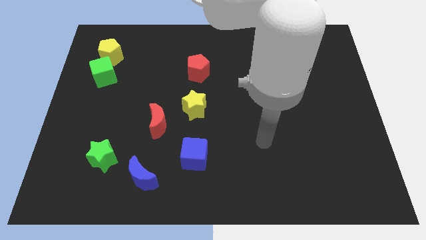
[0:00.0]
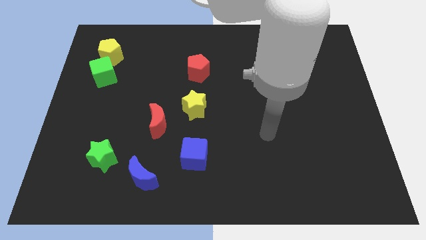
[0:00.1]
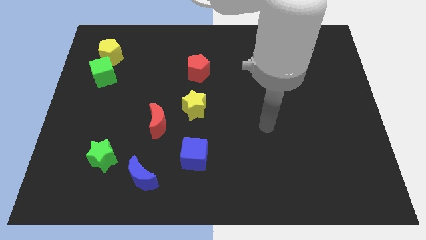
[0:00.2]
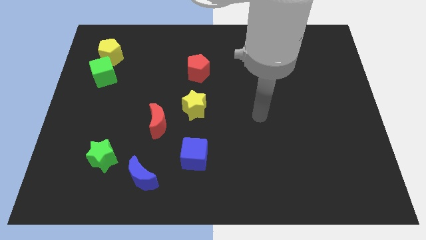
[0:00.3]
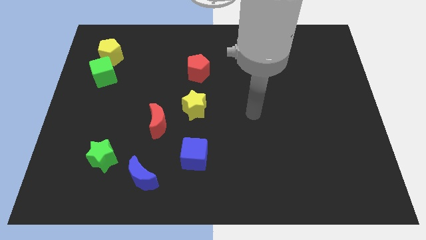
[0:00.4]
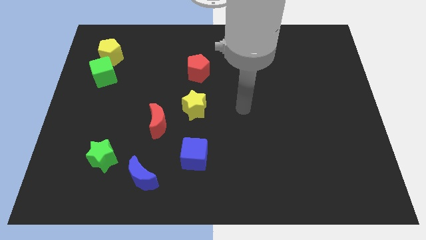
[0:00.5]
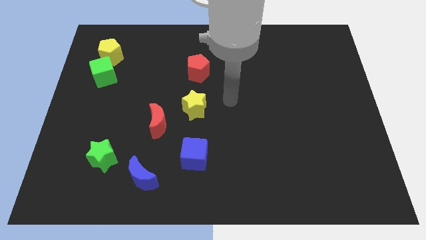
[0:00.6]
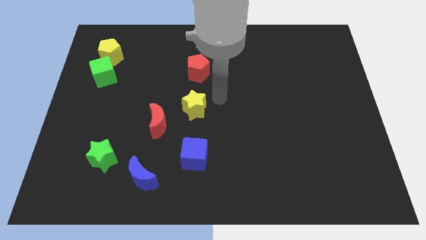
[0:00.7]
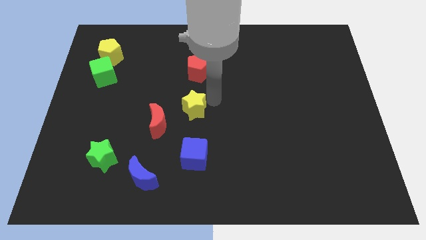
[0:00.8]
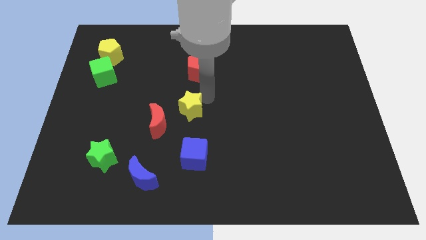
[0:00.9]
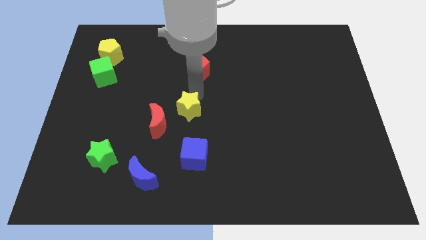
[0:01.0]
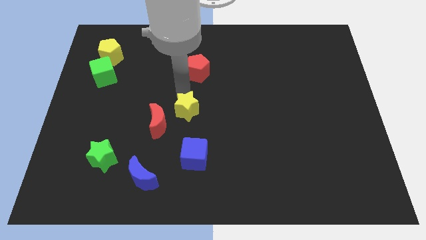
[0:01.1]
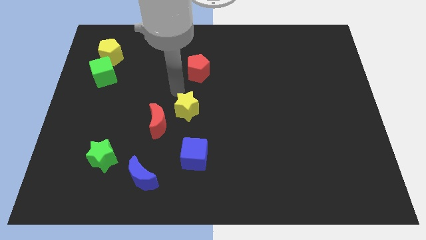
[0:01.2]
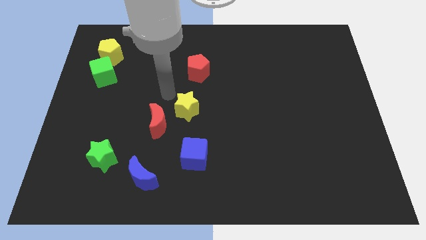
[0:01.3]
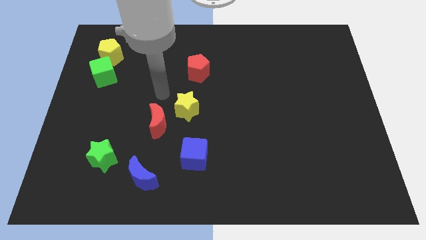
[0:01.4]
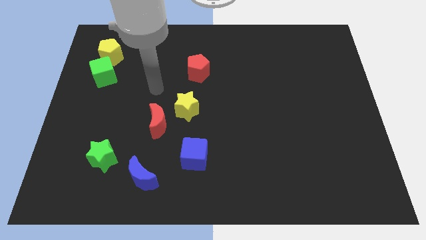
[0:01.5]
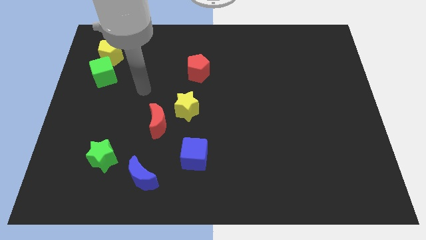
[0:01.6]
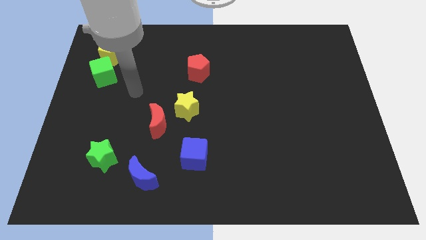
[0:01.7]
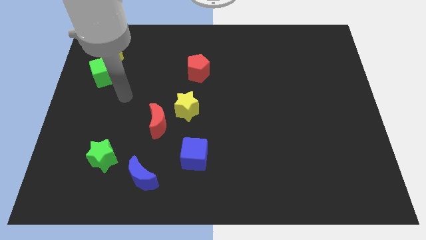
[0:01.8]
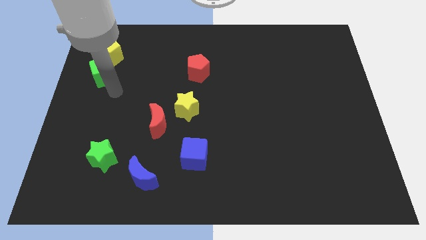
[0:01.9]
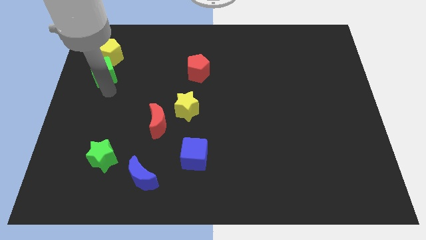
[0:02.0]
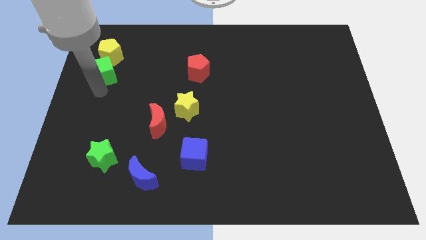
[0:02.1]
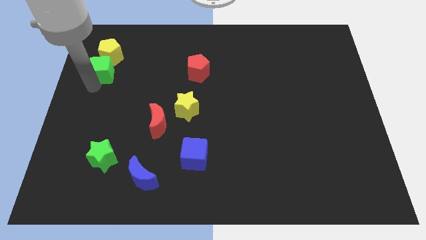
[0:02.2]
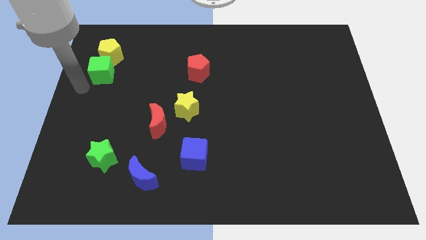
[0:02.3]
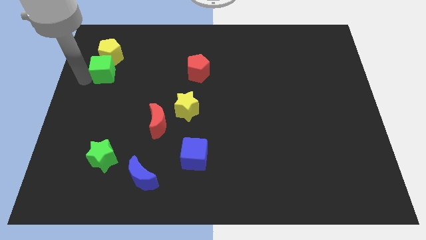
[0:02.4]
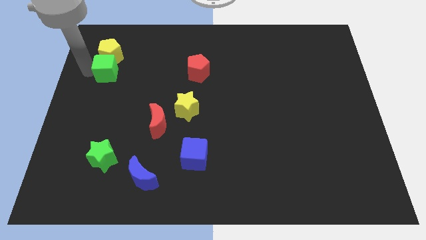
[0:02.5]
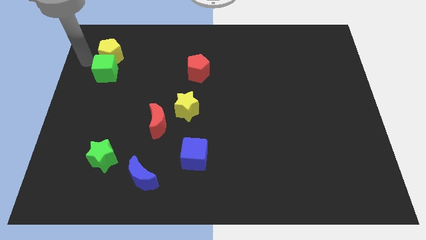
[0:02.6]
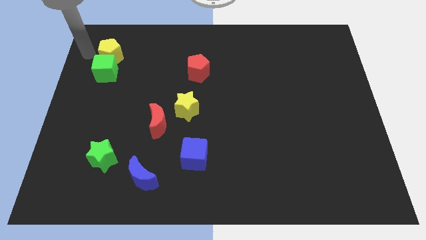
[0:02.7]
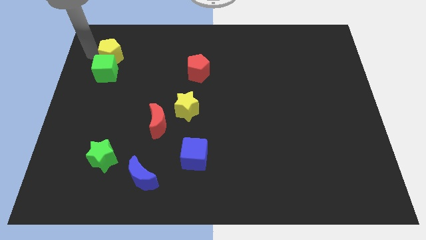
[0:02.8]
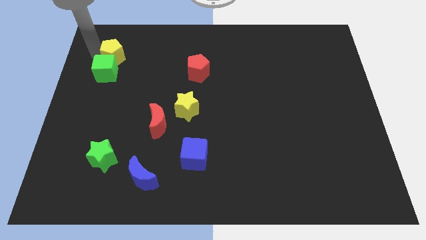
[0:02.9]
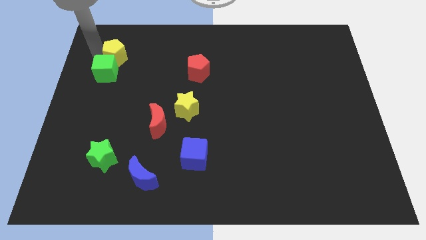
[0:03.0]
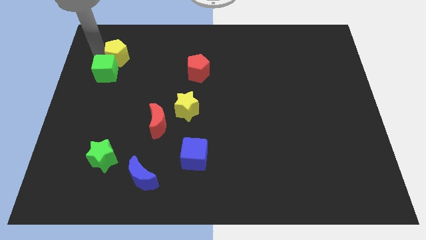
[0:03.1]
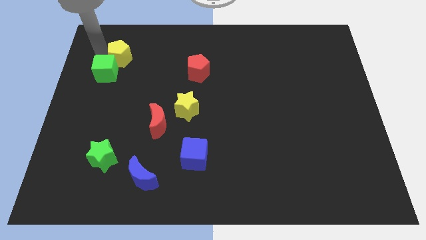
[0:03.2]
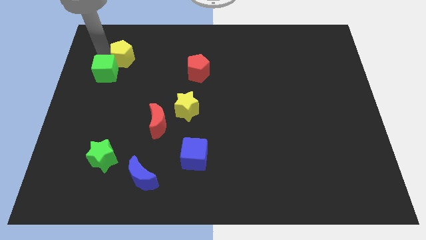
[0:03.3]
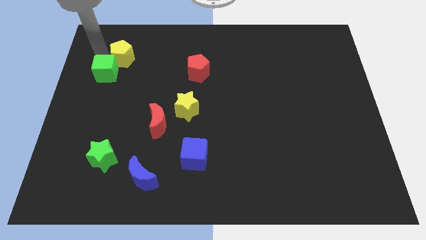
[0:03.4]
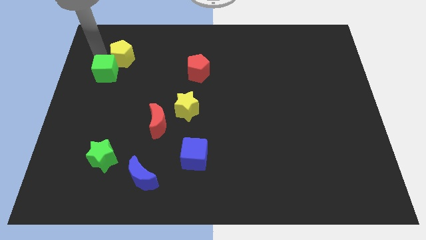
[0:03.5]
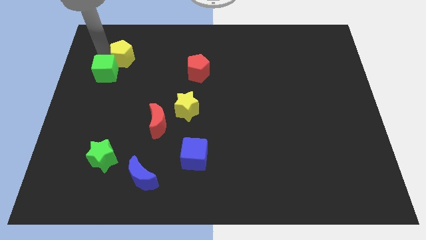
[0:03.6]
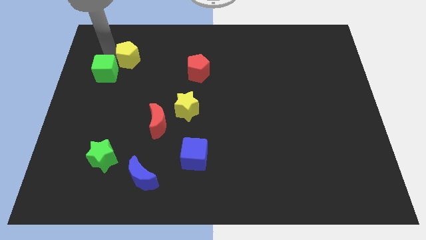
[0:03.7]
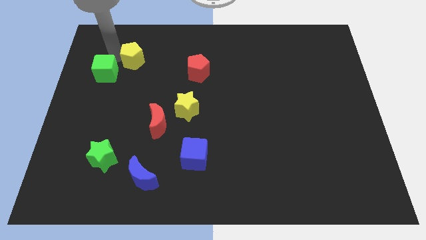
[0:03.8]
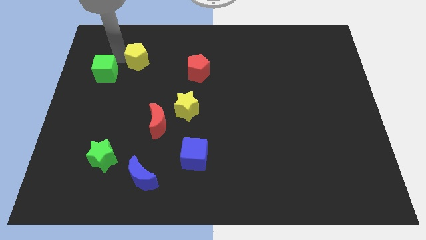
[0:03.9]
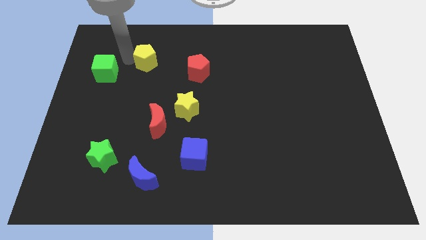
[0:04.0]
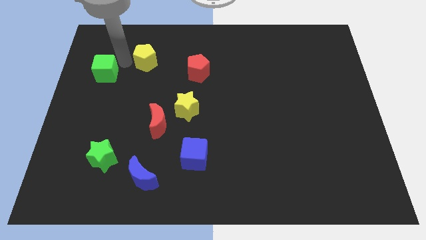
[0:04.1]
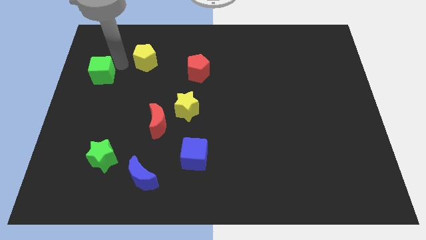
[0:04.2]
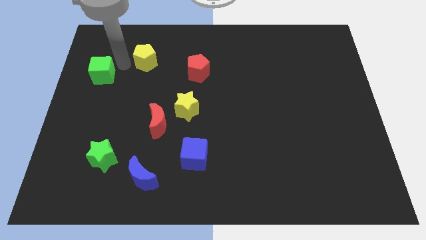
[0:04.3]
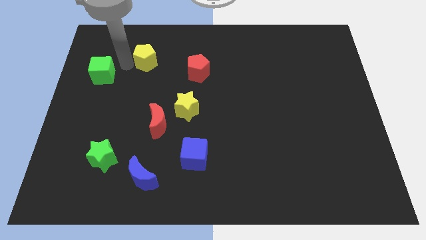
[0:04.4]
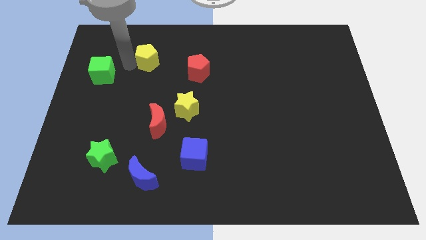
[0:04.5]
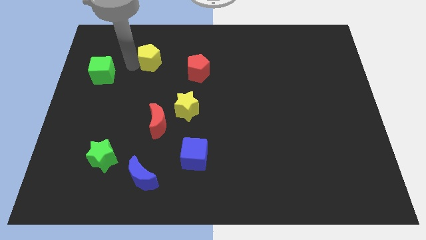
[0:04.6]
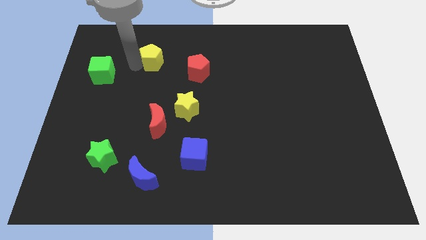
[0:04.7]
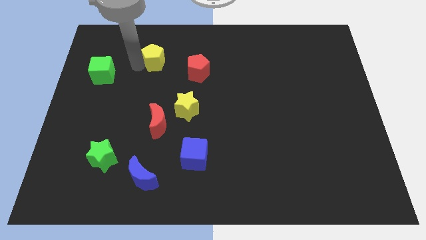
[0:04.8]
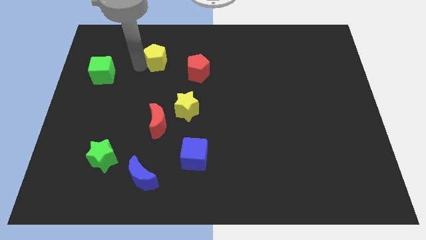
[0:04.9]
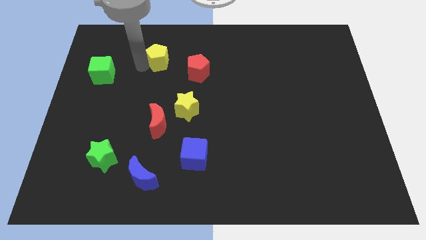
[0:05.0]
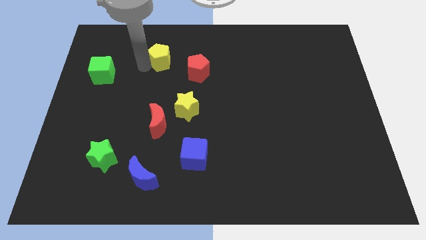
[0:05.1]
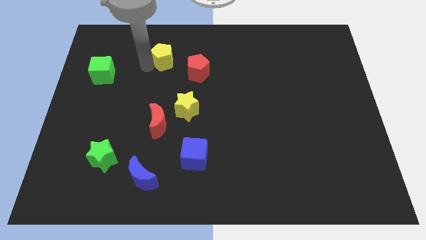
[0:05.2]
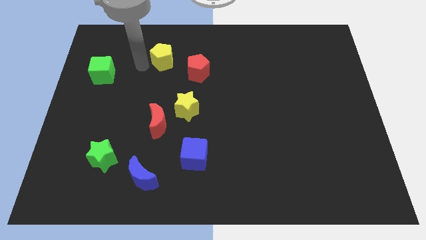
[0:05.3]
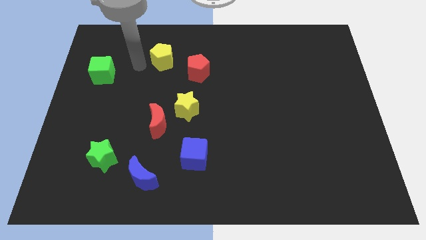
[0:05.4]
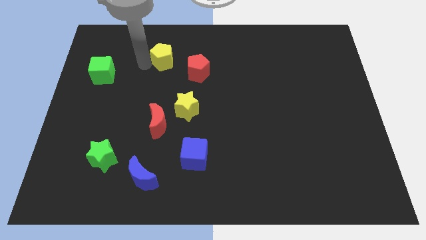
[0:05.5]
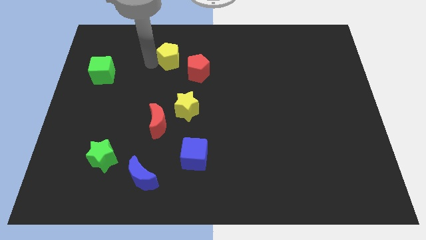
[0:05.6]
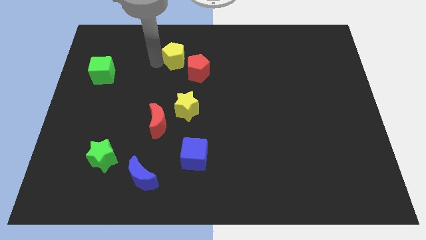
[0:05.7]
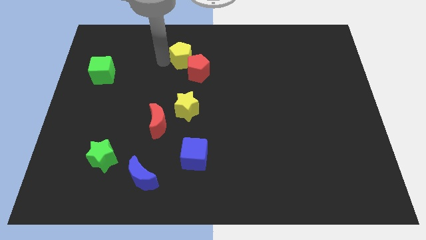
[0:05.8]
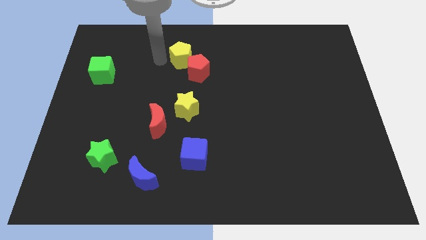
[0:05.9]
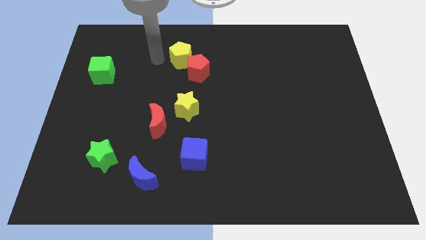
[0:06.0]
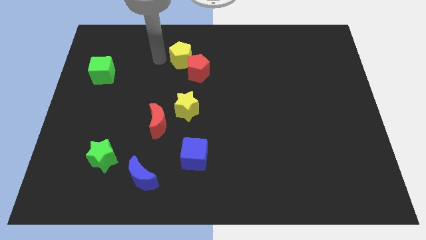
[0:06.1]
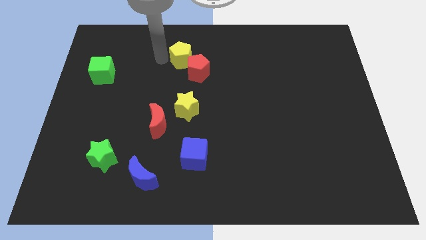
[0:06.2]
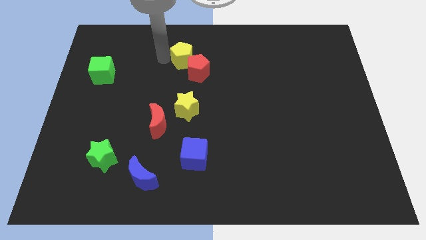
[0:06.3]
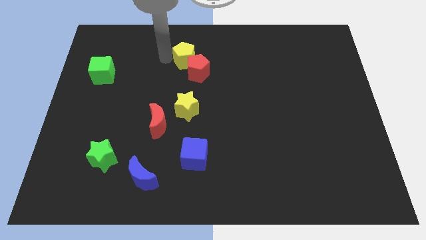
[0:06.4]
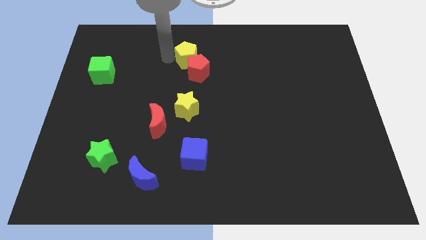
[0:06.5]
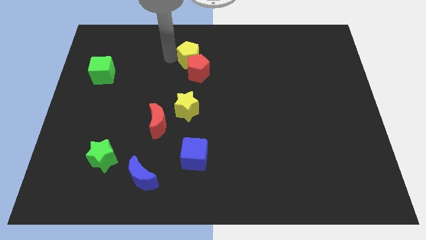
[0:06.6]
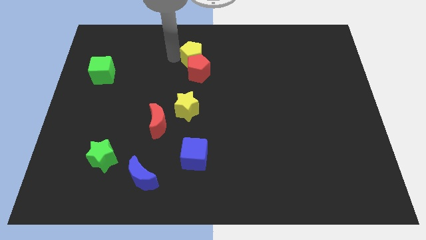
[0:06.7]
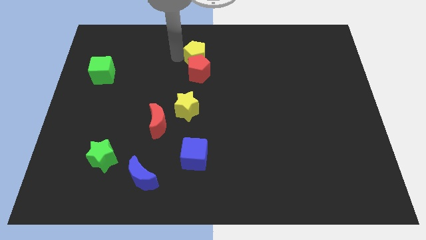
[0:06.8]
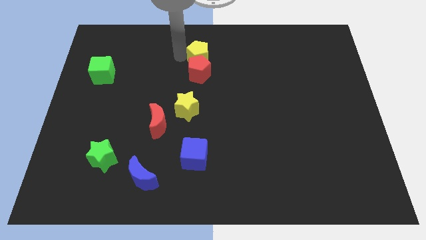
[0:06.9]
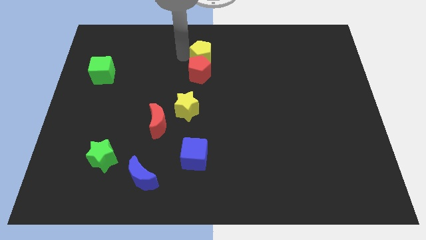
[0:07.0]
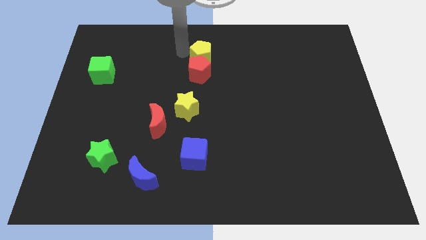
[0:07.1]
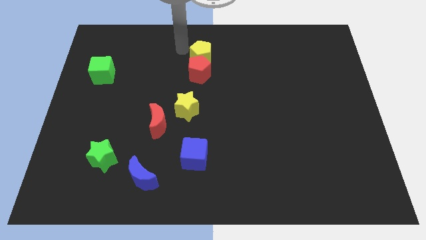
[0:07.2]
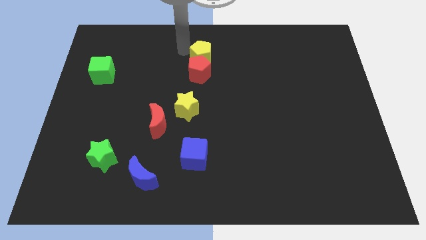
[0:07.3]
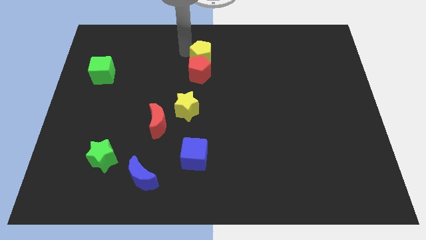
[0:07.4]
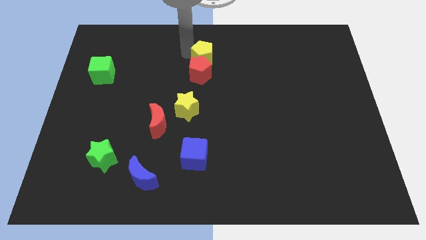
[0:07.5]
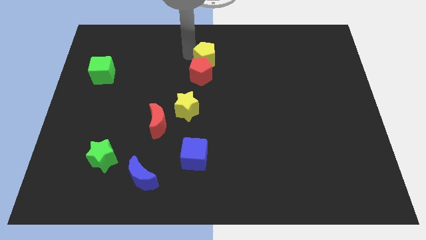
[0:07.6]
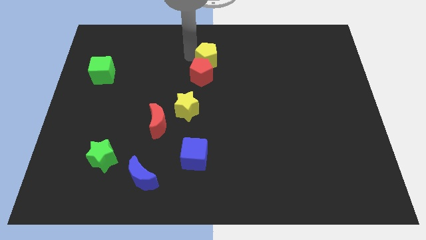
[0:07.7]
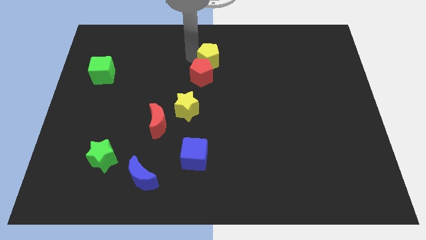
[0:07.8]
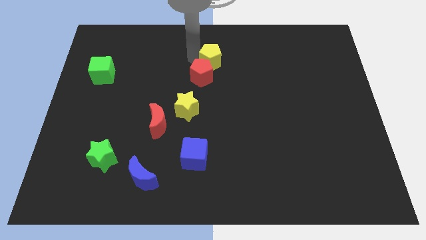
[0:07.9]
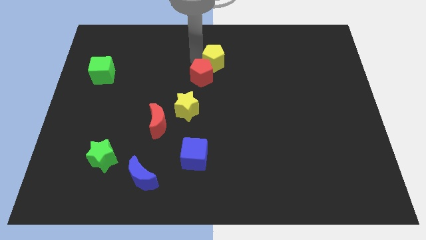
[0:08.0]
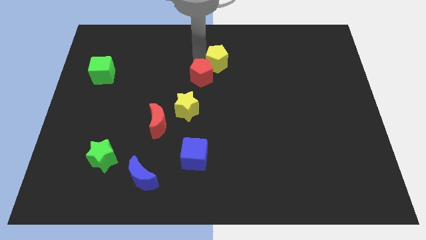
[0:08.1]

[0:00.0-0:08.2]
move the yellow pentagon to the right of the red pentagon
